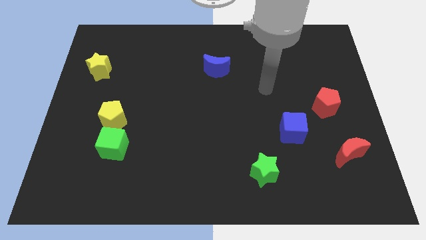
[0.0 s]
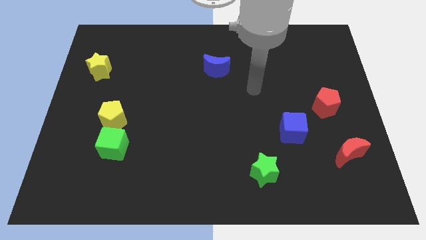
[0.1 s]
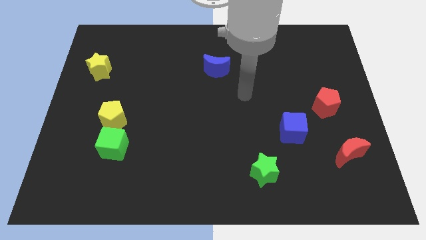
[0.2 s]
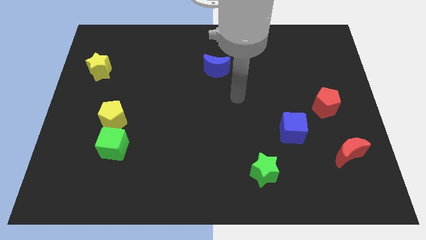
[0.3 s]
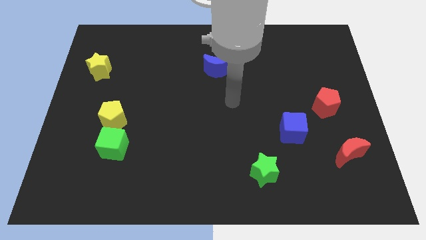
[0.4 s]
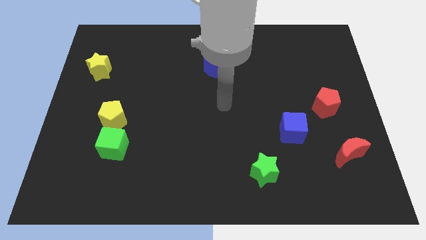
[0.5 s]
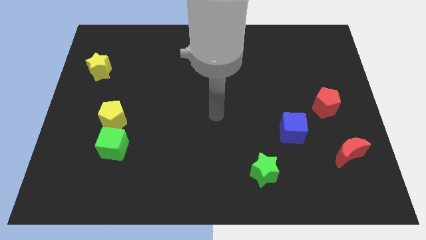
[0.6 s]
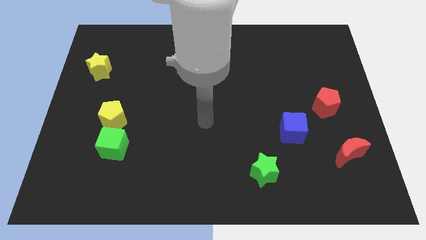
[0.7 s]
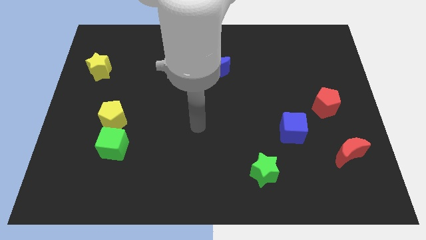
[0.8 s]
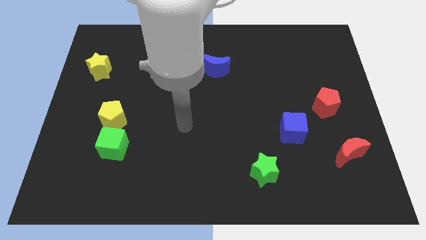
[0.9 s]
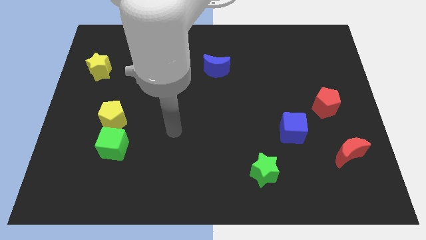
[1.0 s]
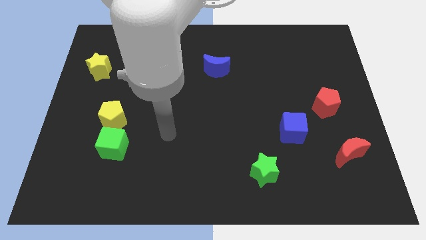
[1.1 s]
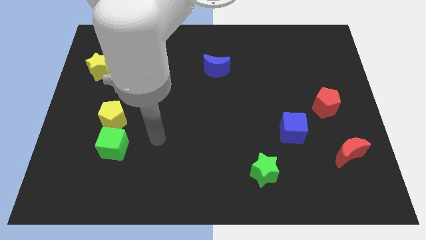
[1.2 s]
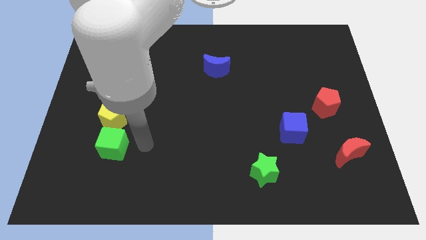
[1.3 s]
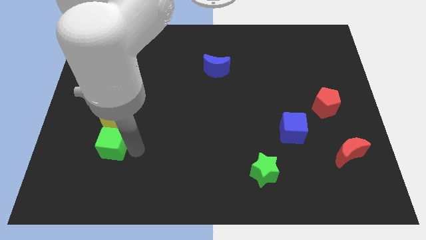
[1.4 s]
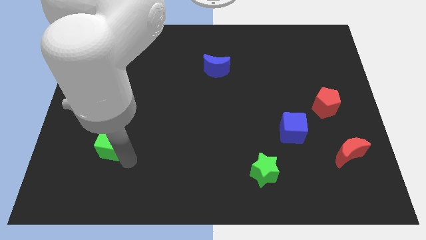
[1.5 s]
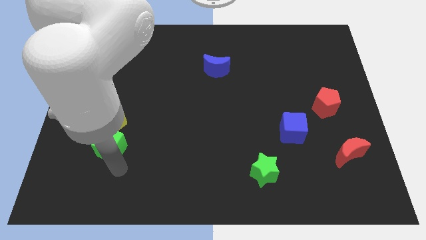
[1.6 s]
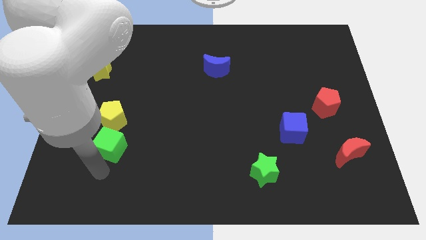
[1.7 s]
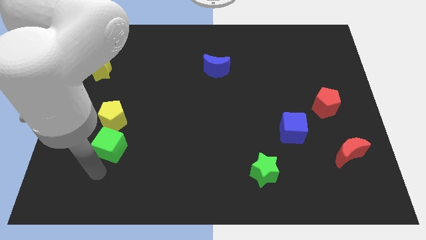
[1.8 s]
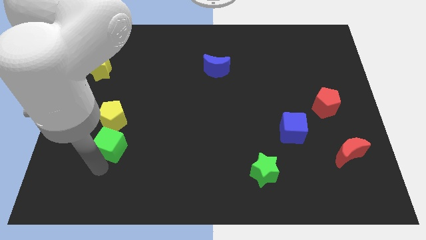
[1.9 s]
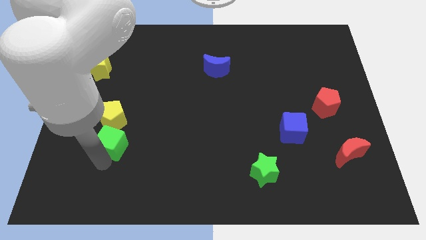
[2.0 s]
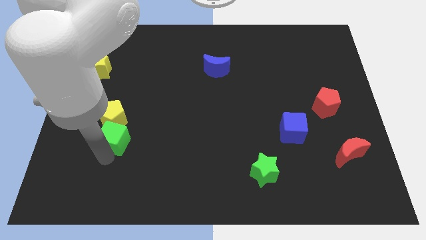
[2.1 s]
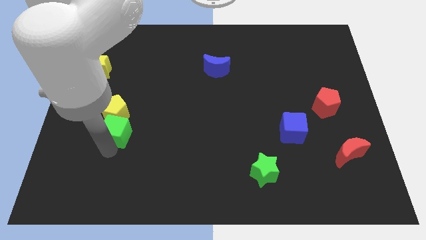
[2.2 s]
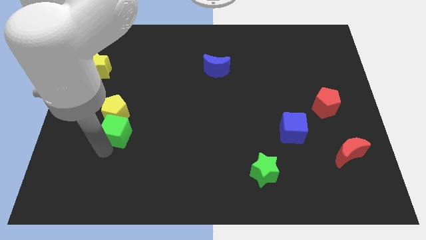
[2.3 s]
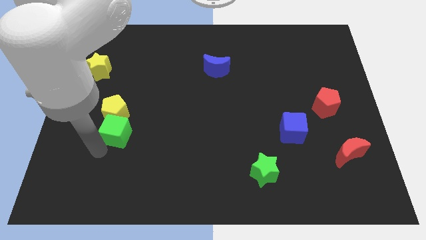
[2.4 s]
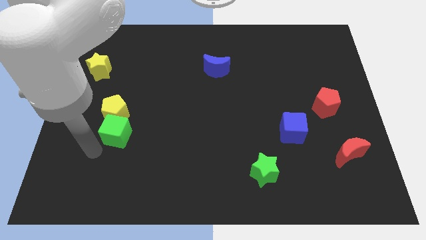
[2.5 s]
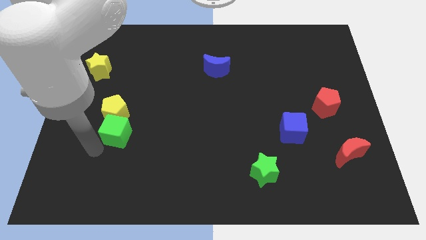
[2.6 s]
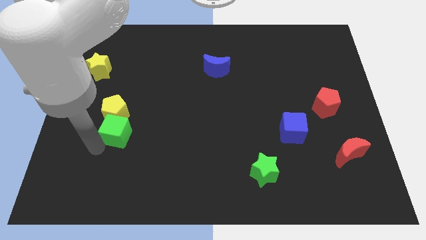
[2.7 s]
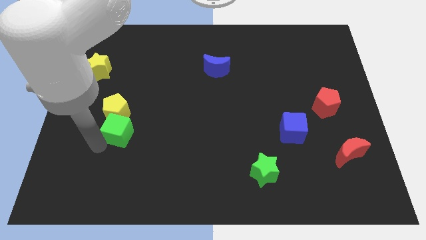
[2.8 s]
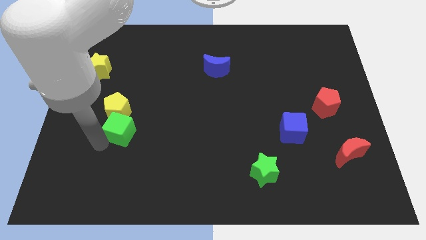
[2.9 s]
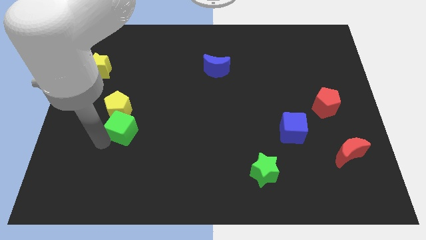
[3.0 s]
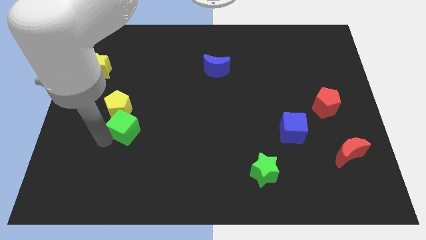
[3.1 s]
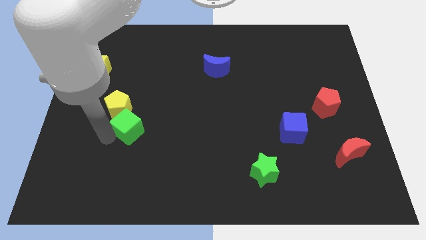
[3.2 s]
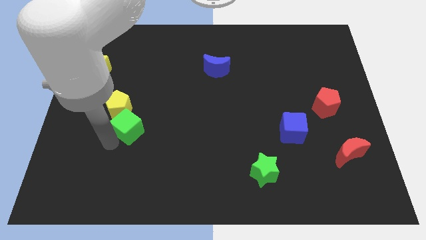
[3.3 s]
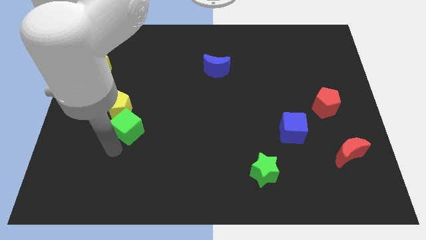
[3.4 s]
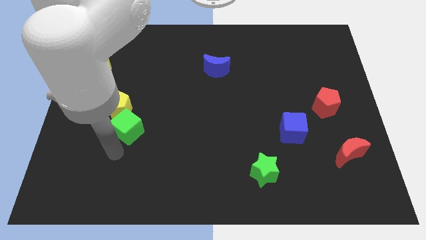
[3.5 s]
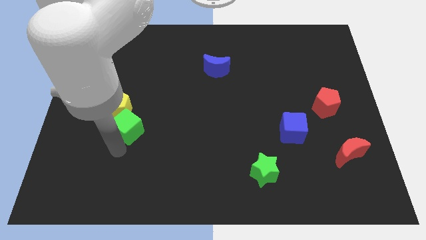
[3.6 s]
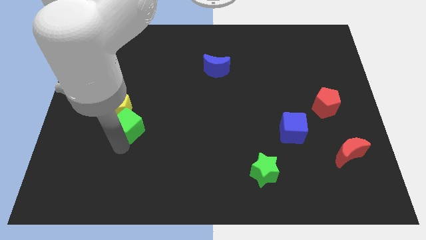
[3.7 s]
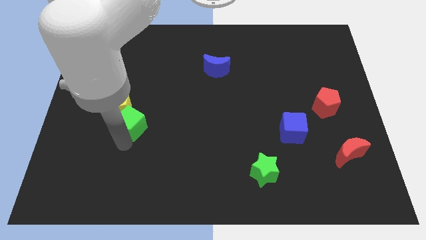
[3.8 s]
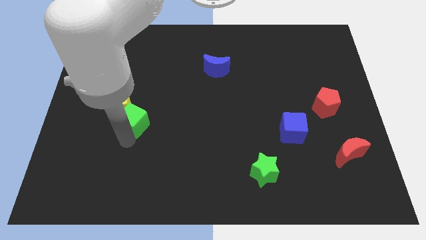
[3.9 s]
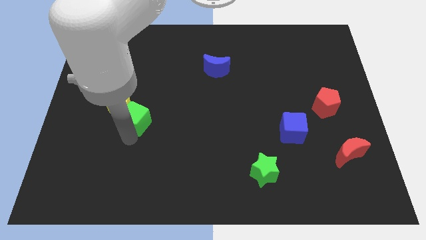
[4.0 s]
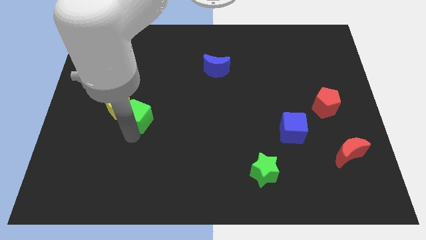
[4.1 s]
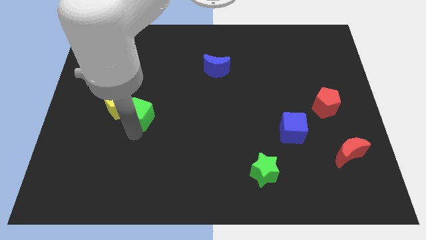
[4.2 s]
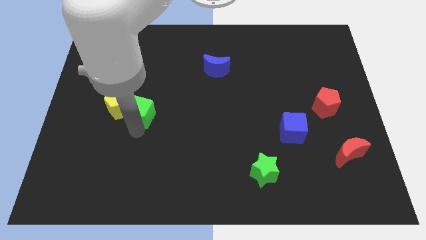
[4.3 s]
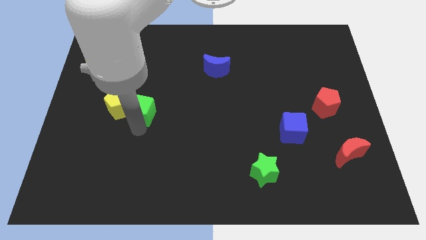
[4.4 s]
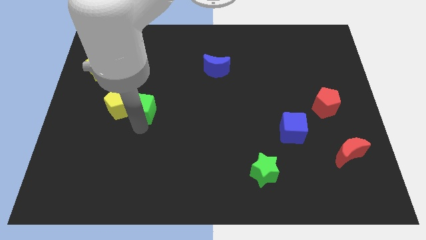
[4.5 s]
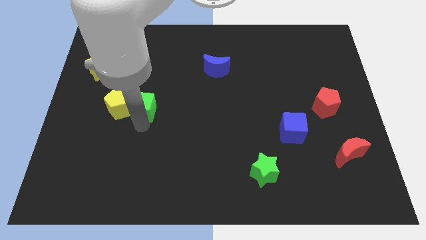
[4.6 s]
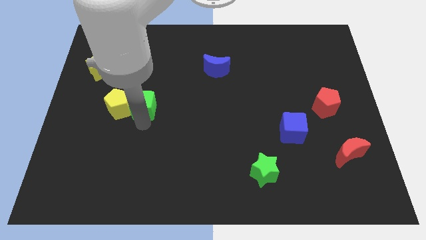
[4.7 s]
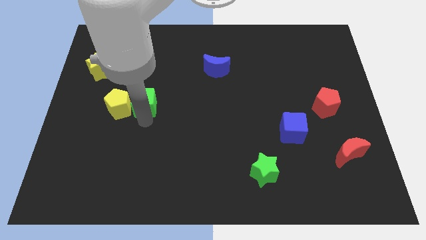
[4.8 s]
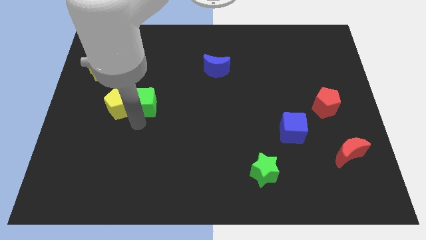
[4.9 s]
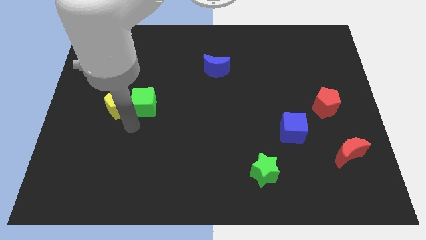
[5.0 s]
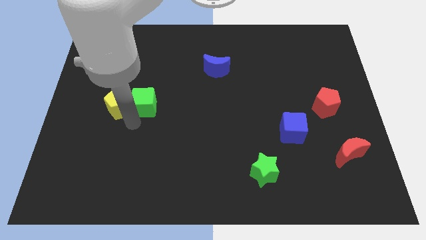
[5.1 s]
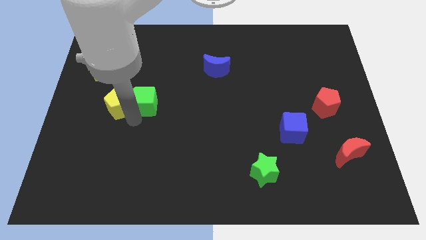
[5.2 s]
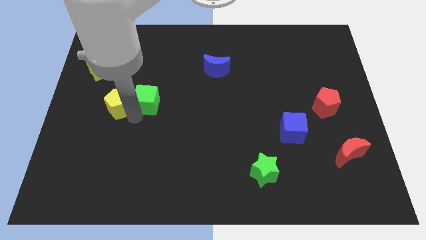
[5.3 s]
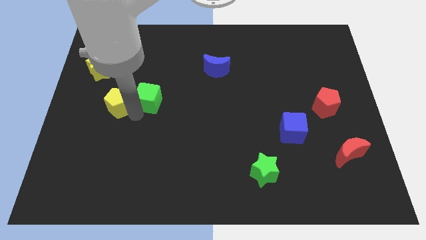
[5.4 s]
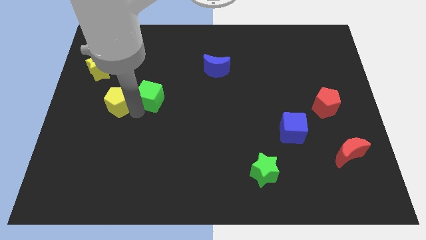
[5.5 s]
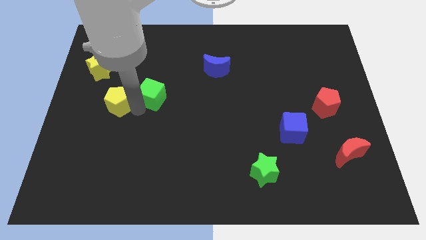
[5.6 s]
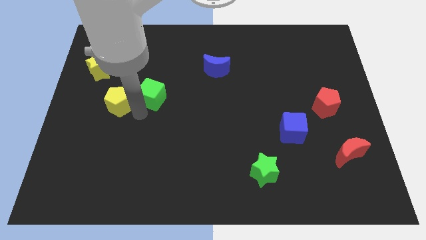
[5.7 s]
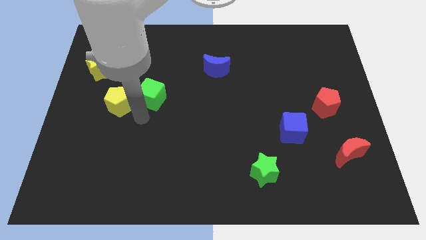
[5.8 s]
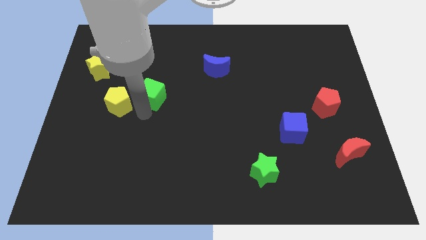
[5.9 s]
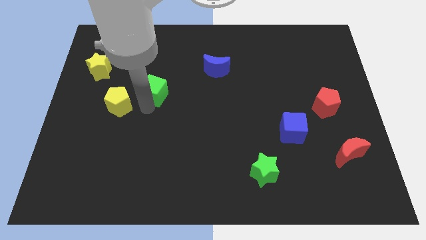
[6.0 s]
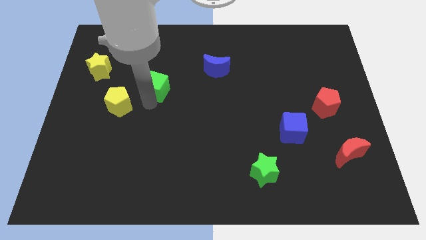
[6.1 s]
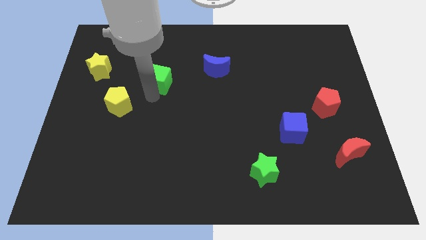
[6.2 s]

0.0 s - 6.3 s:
move the green cube left of the blue moon
